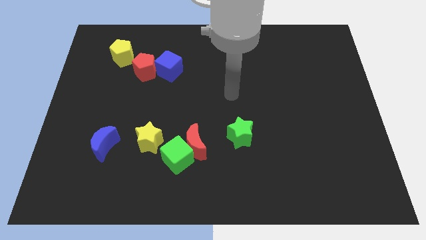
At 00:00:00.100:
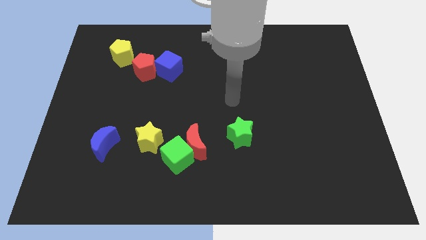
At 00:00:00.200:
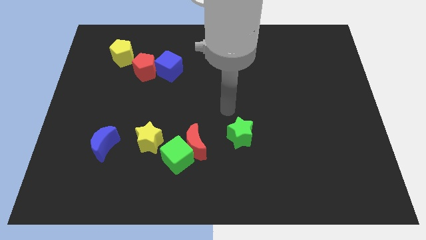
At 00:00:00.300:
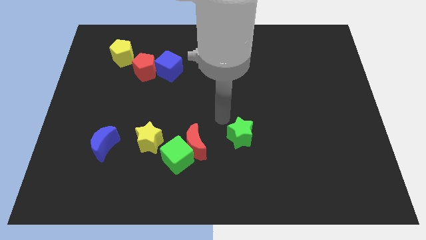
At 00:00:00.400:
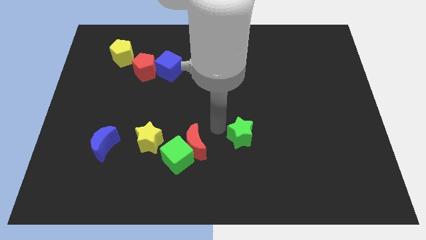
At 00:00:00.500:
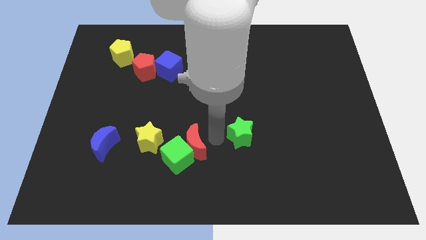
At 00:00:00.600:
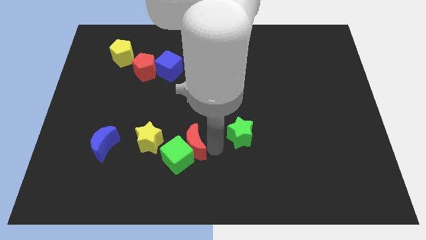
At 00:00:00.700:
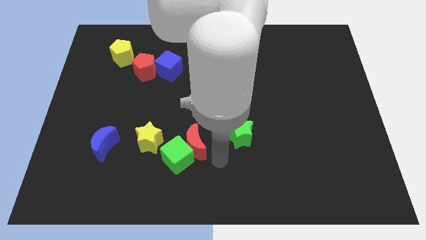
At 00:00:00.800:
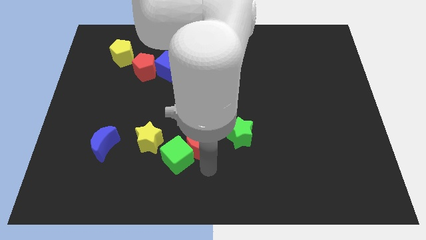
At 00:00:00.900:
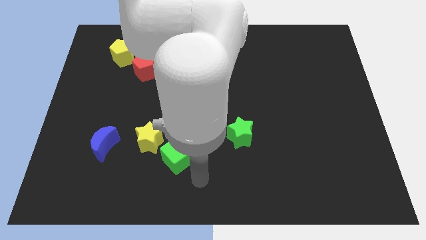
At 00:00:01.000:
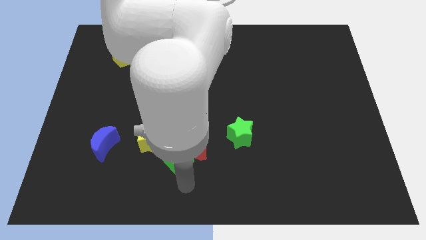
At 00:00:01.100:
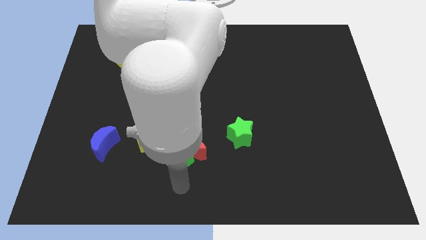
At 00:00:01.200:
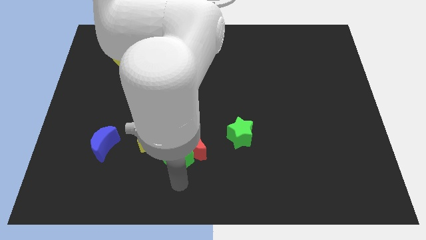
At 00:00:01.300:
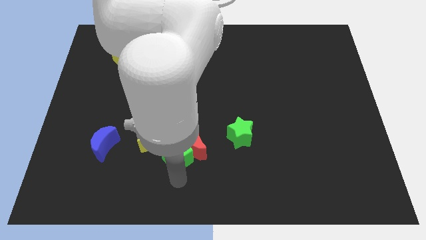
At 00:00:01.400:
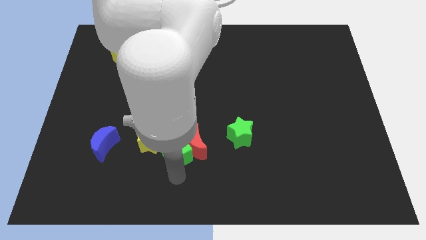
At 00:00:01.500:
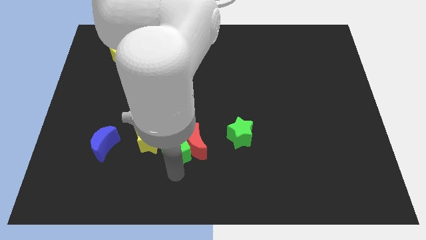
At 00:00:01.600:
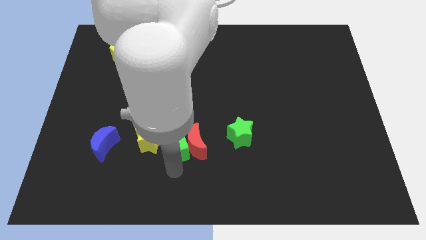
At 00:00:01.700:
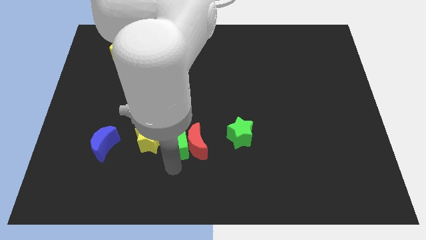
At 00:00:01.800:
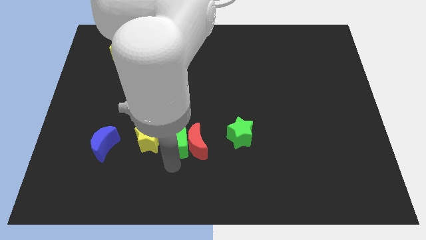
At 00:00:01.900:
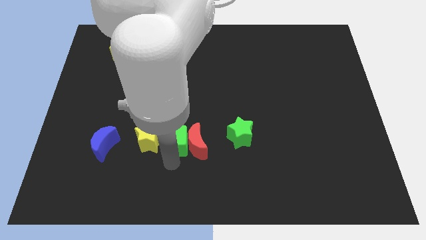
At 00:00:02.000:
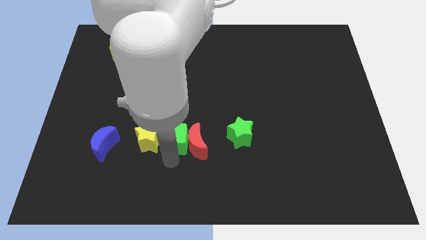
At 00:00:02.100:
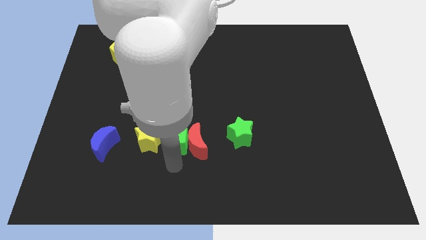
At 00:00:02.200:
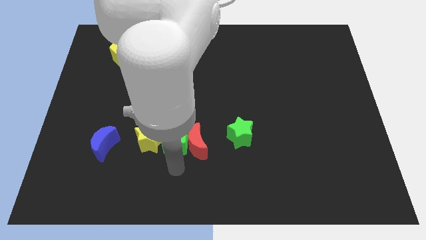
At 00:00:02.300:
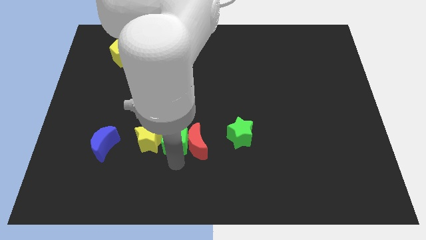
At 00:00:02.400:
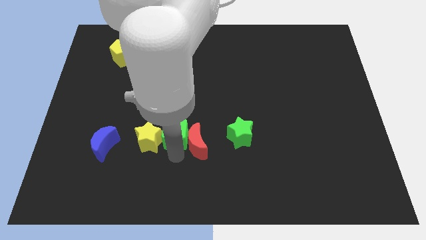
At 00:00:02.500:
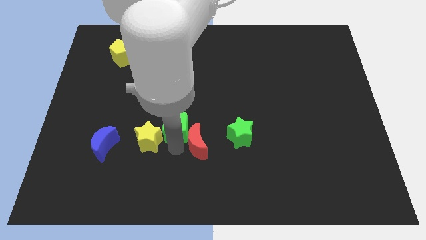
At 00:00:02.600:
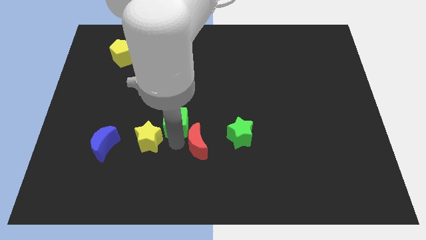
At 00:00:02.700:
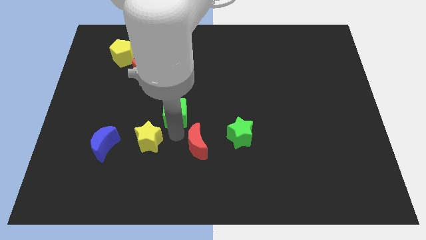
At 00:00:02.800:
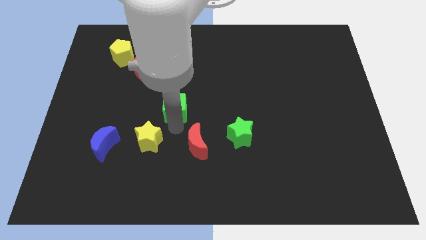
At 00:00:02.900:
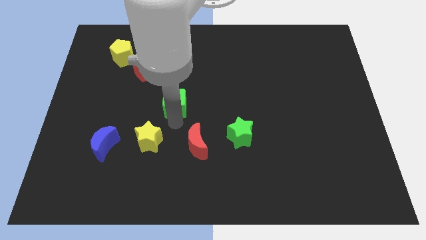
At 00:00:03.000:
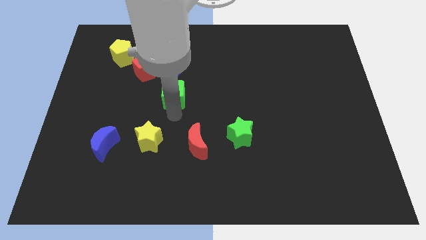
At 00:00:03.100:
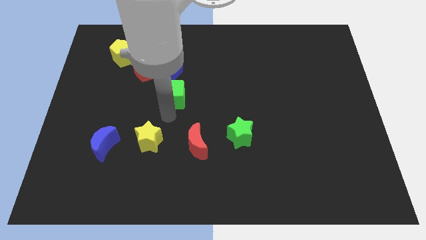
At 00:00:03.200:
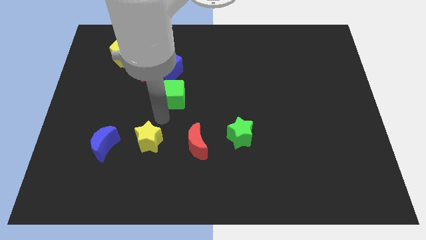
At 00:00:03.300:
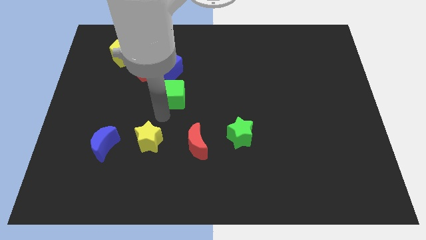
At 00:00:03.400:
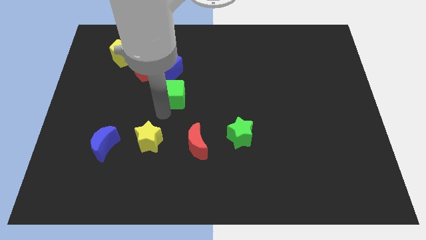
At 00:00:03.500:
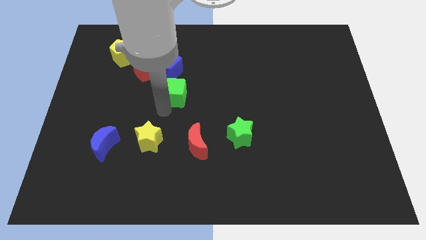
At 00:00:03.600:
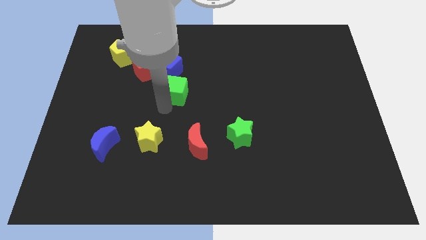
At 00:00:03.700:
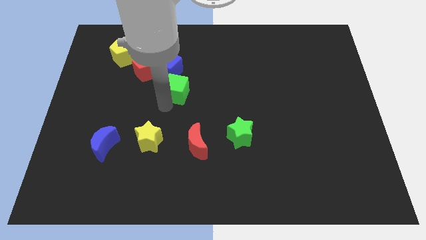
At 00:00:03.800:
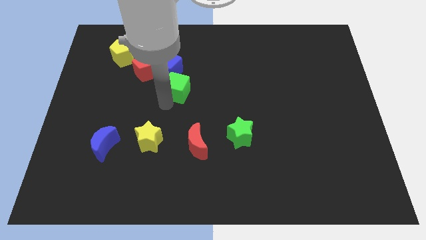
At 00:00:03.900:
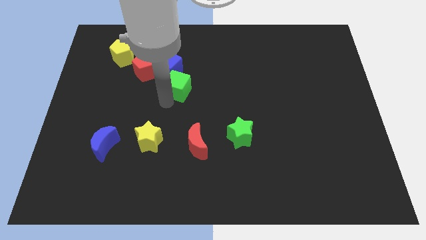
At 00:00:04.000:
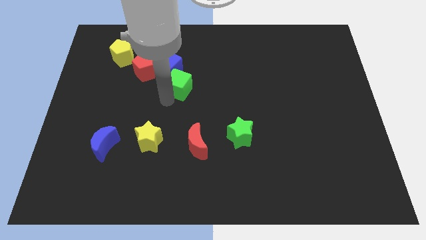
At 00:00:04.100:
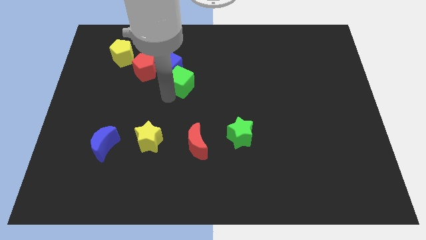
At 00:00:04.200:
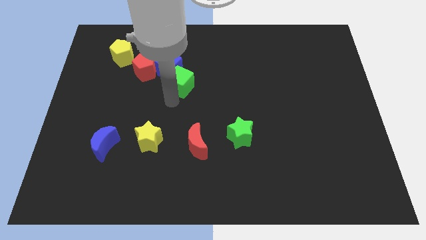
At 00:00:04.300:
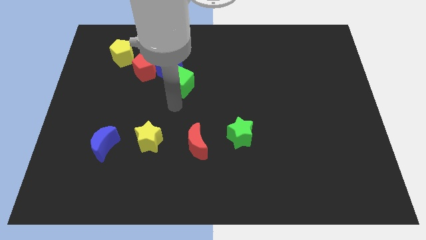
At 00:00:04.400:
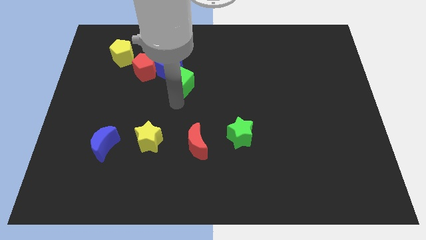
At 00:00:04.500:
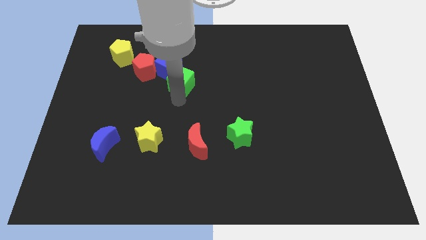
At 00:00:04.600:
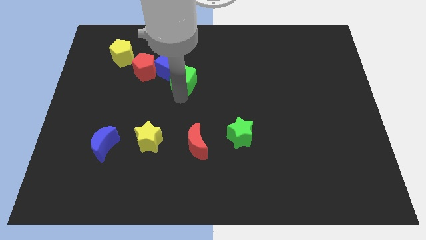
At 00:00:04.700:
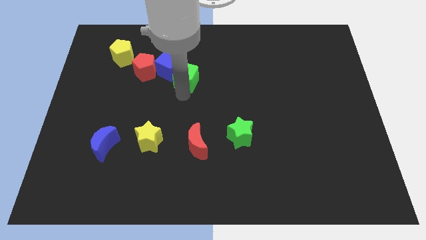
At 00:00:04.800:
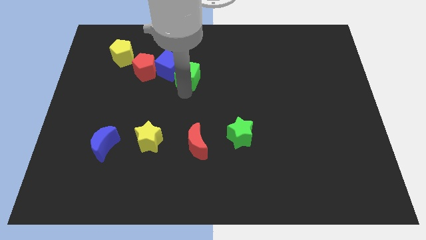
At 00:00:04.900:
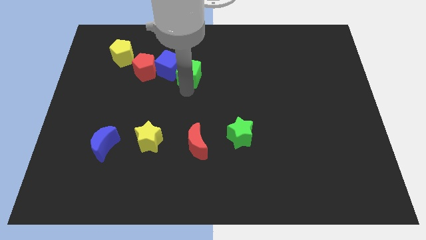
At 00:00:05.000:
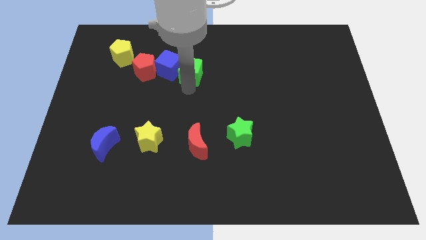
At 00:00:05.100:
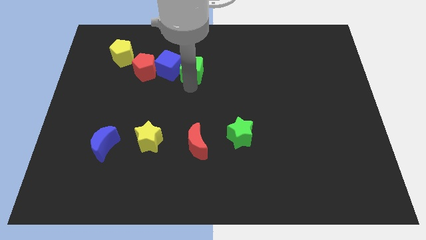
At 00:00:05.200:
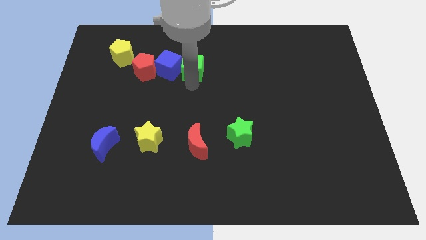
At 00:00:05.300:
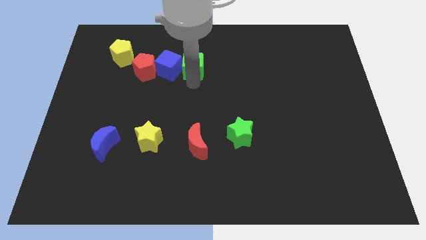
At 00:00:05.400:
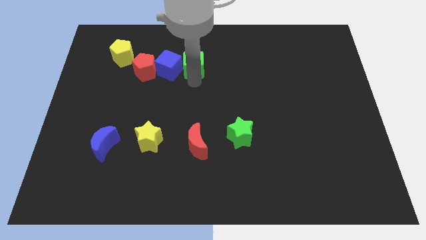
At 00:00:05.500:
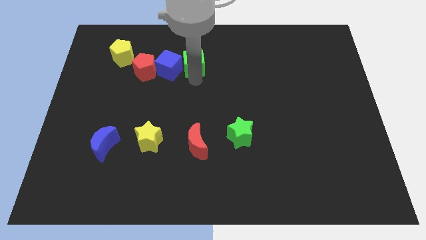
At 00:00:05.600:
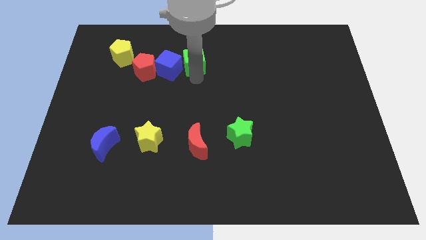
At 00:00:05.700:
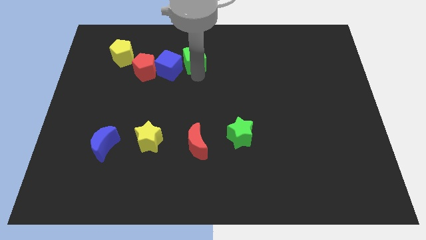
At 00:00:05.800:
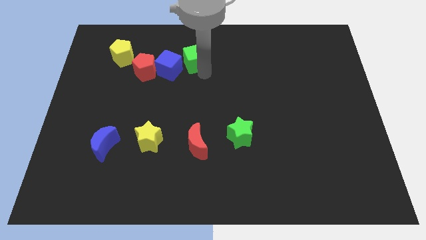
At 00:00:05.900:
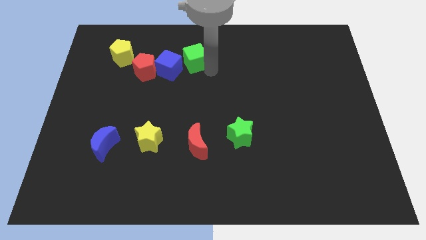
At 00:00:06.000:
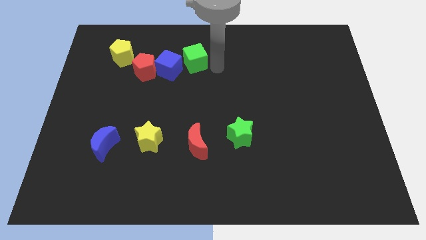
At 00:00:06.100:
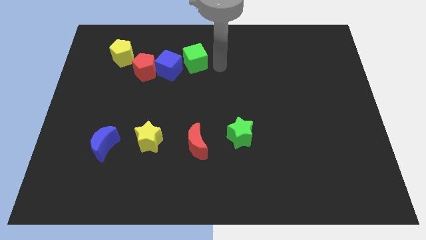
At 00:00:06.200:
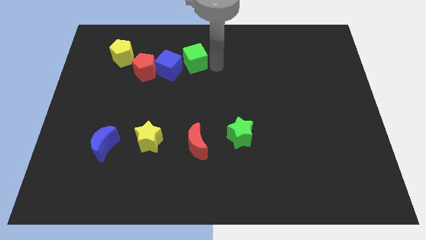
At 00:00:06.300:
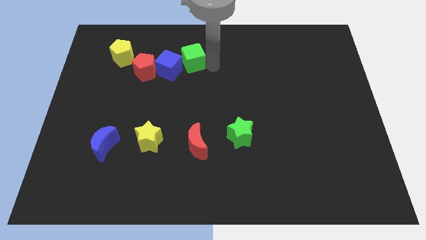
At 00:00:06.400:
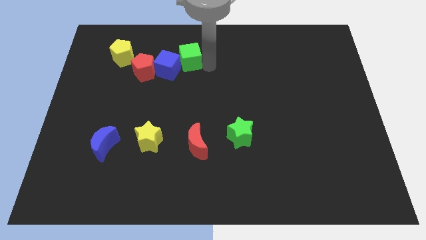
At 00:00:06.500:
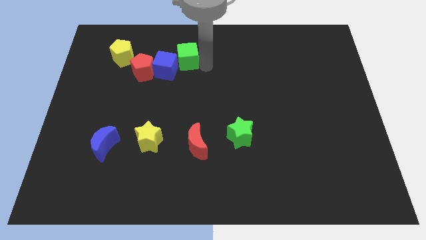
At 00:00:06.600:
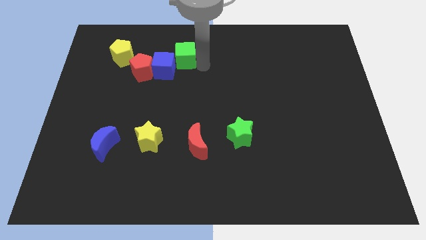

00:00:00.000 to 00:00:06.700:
push the green cube just right of the yellow pentagon
